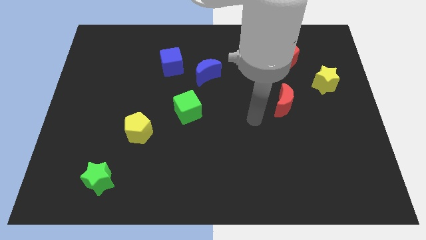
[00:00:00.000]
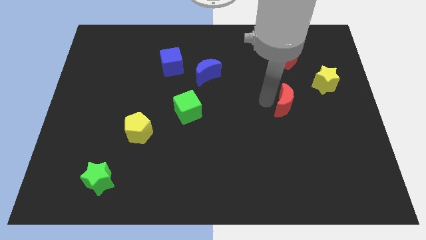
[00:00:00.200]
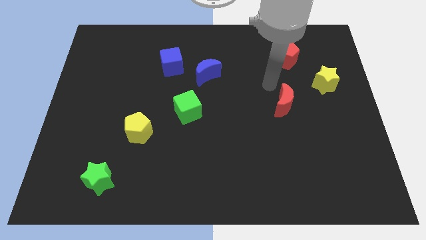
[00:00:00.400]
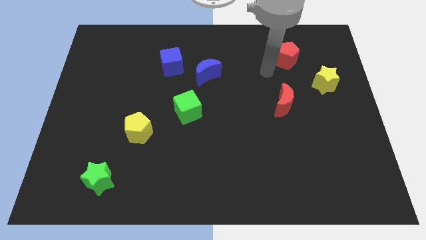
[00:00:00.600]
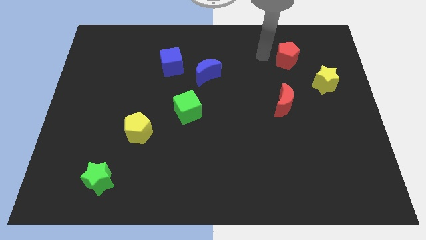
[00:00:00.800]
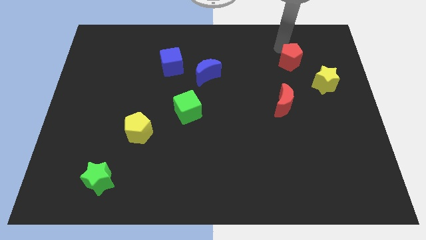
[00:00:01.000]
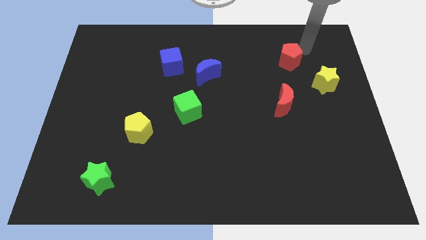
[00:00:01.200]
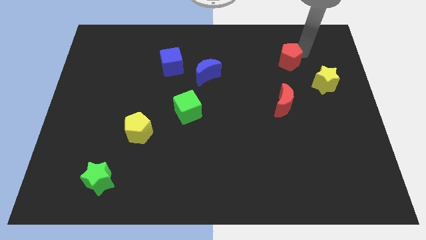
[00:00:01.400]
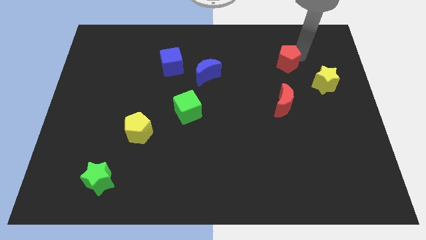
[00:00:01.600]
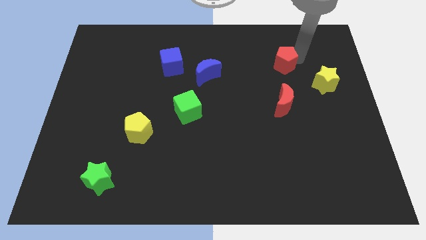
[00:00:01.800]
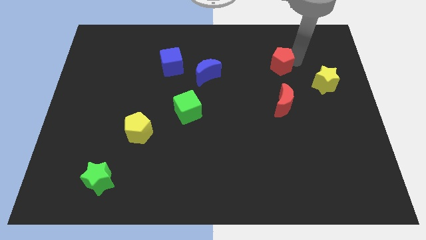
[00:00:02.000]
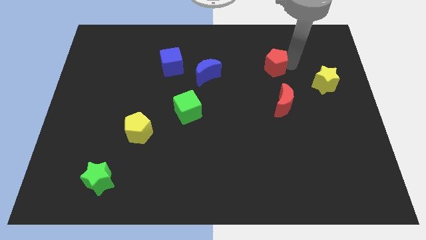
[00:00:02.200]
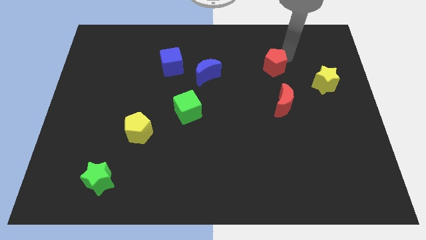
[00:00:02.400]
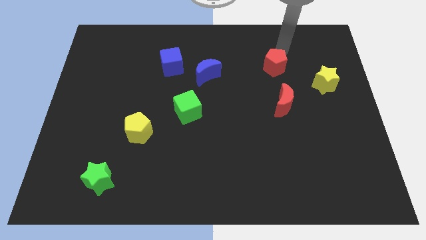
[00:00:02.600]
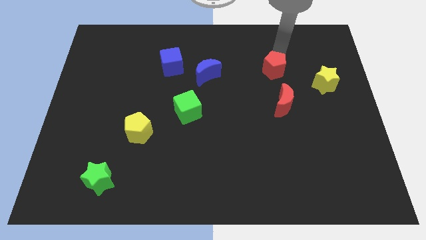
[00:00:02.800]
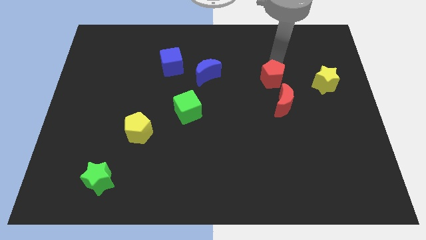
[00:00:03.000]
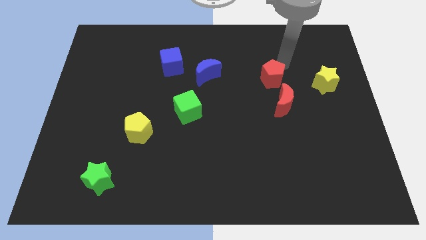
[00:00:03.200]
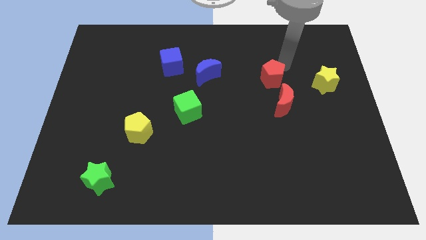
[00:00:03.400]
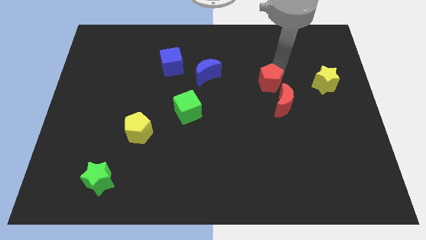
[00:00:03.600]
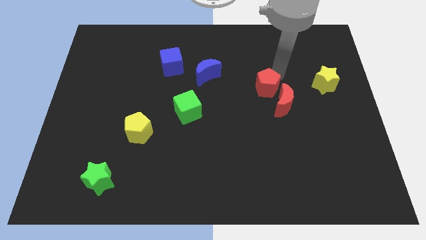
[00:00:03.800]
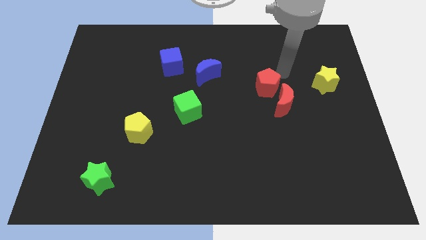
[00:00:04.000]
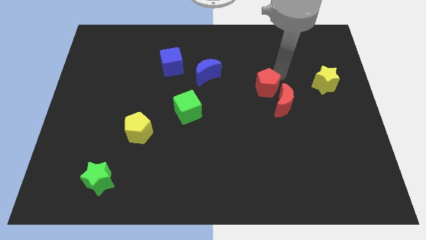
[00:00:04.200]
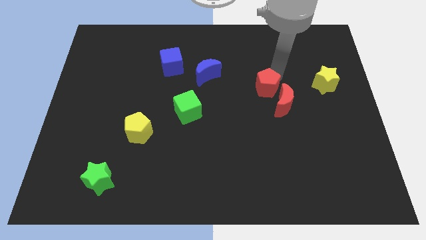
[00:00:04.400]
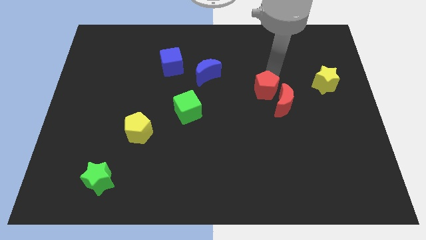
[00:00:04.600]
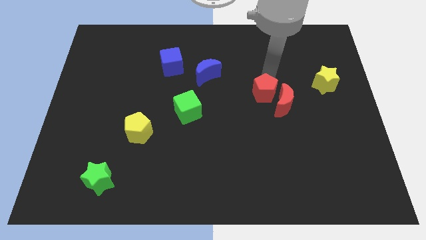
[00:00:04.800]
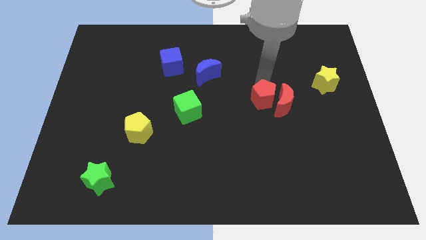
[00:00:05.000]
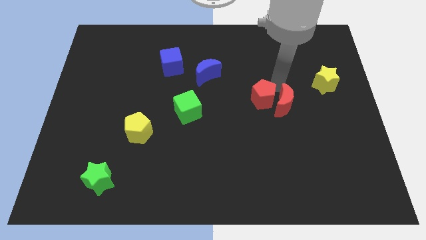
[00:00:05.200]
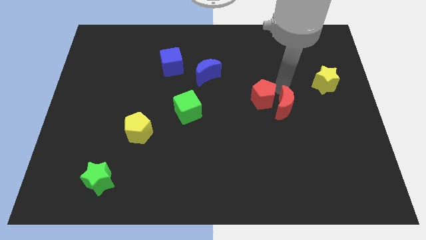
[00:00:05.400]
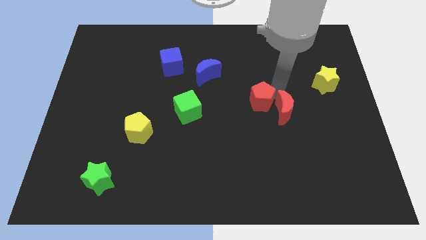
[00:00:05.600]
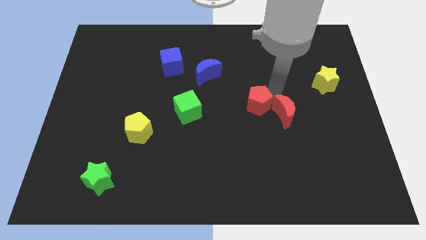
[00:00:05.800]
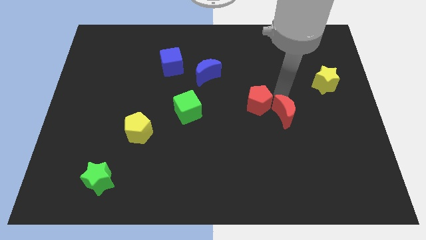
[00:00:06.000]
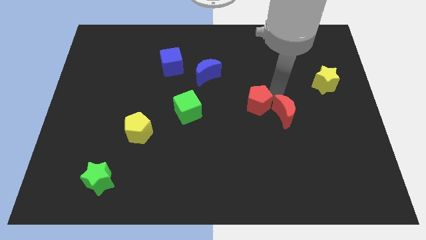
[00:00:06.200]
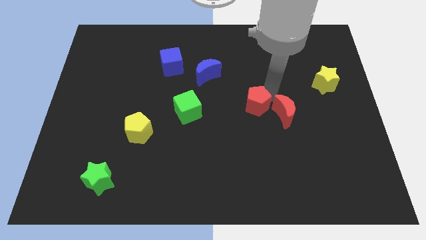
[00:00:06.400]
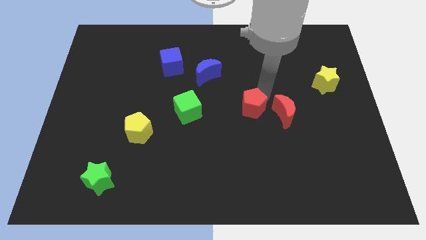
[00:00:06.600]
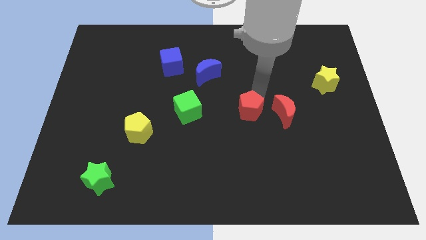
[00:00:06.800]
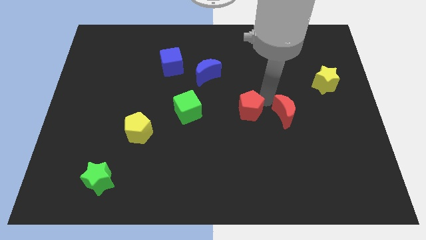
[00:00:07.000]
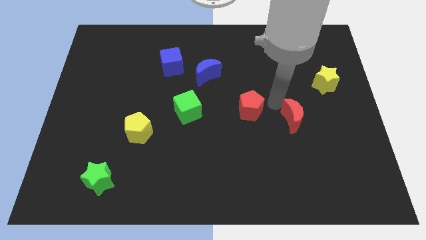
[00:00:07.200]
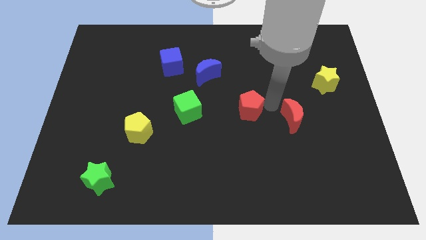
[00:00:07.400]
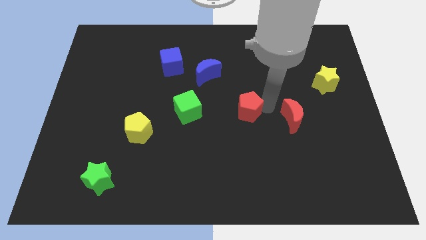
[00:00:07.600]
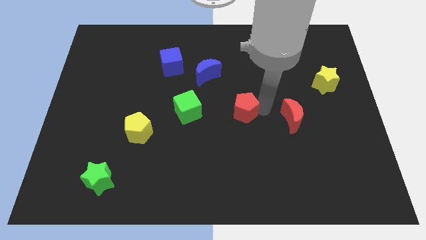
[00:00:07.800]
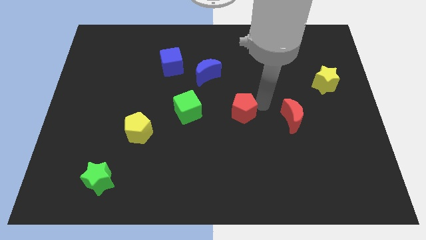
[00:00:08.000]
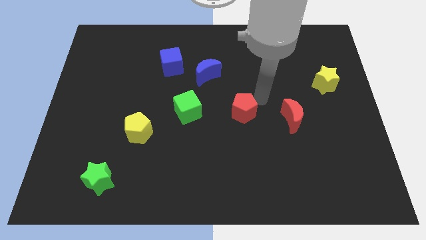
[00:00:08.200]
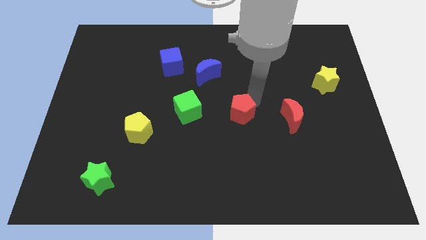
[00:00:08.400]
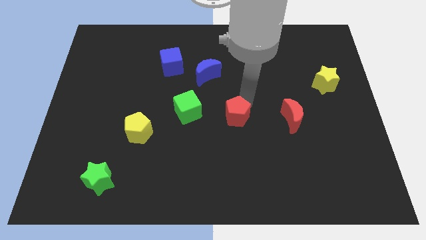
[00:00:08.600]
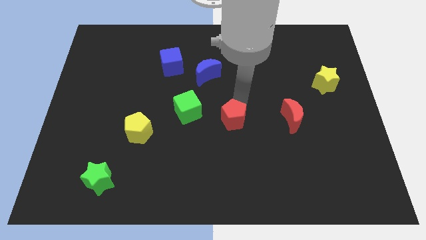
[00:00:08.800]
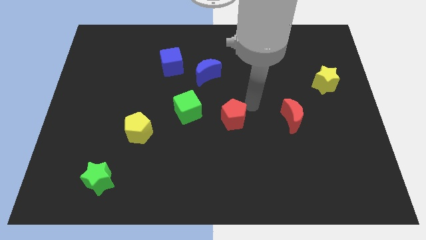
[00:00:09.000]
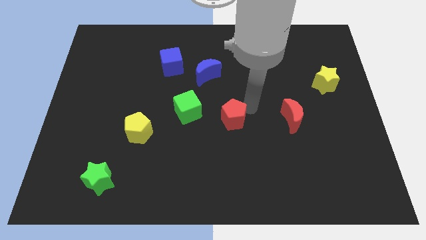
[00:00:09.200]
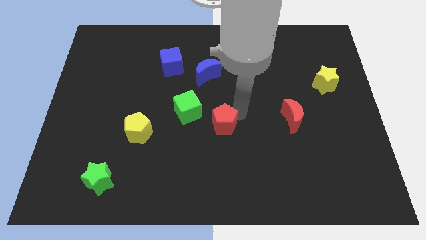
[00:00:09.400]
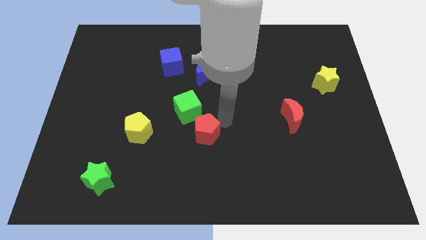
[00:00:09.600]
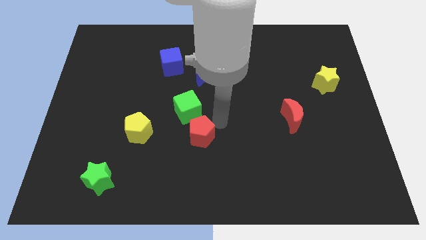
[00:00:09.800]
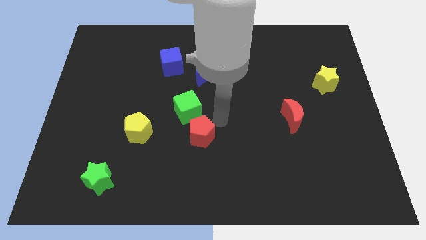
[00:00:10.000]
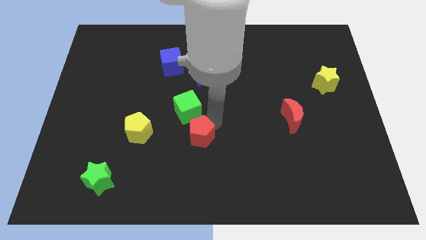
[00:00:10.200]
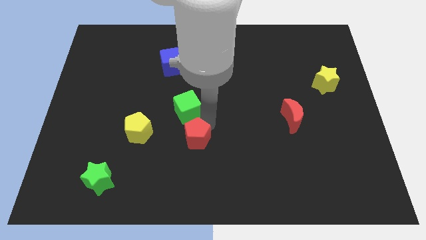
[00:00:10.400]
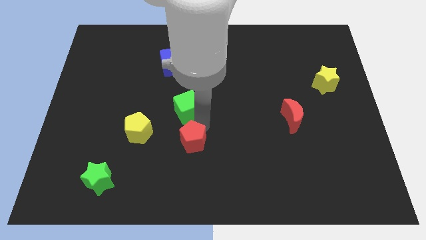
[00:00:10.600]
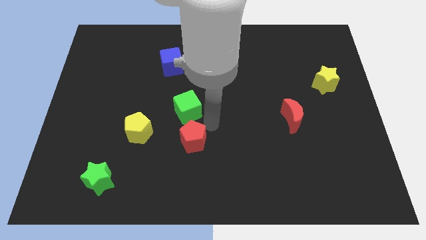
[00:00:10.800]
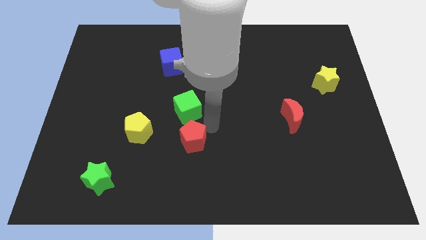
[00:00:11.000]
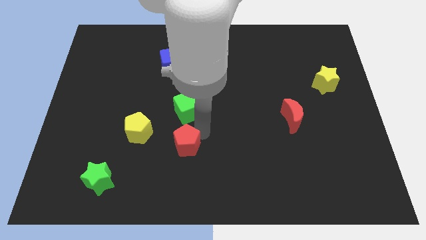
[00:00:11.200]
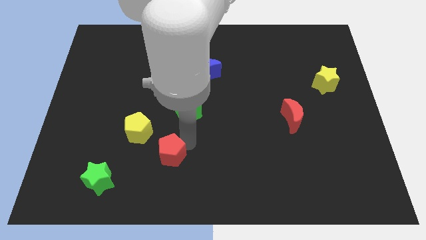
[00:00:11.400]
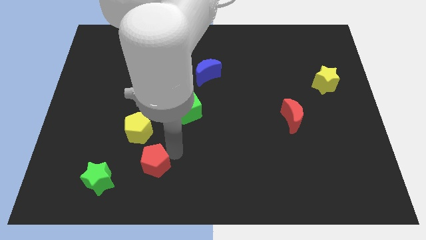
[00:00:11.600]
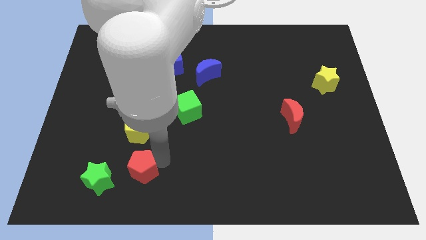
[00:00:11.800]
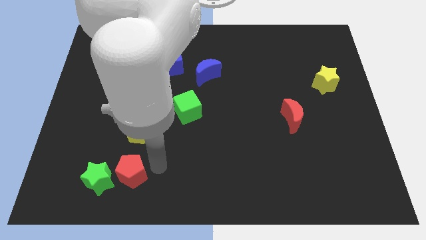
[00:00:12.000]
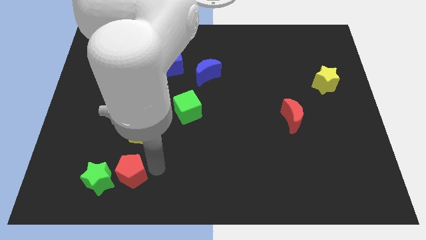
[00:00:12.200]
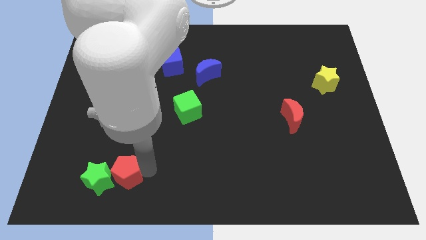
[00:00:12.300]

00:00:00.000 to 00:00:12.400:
put the red pentagon close to the green star
